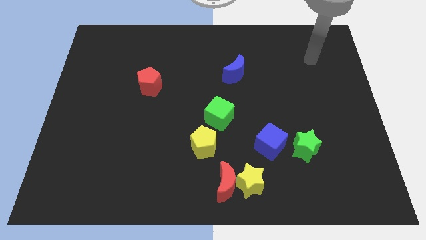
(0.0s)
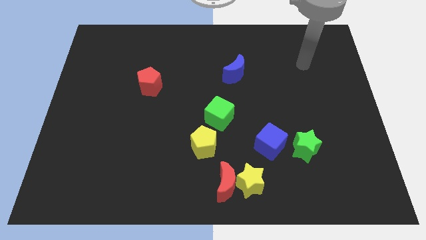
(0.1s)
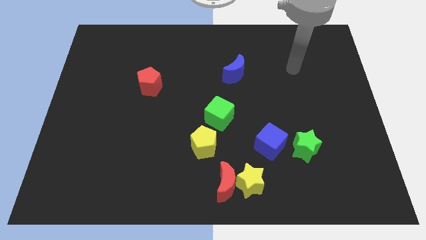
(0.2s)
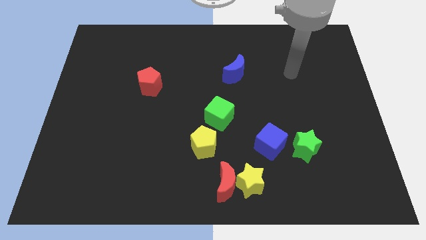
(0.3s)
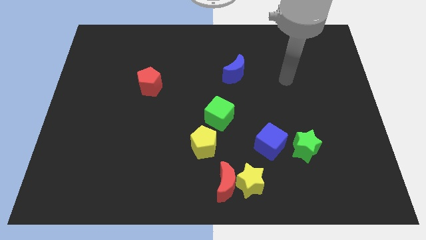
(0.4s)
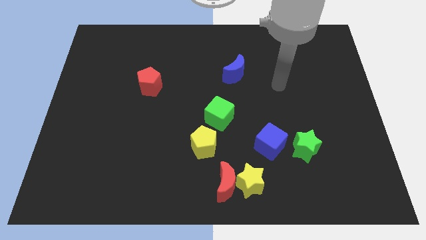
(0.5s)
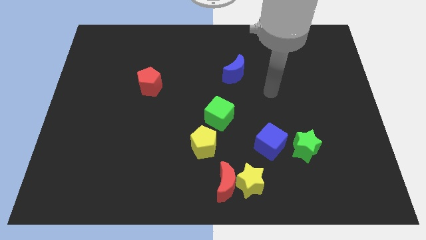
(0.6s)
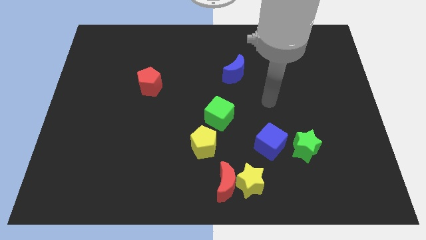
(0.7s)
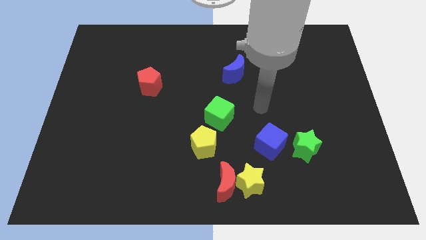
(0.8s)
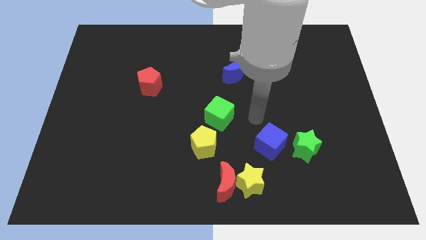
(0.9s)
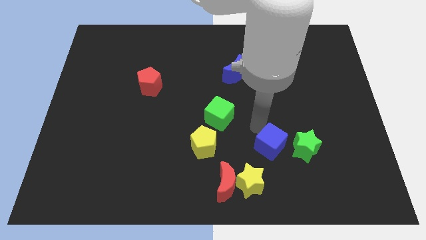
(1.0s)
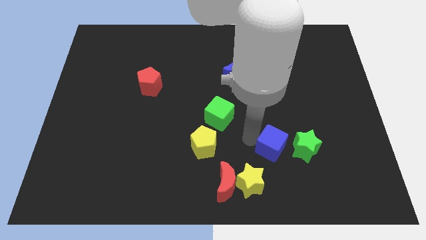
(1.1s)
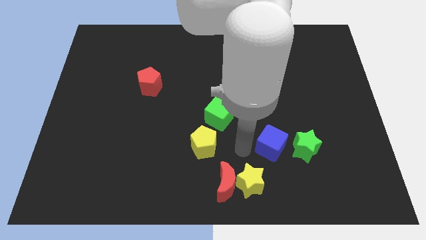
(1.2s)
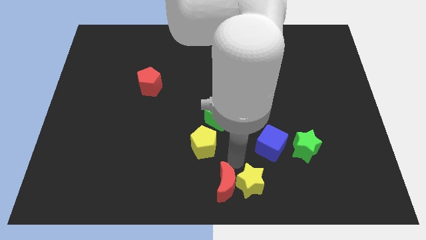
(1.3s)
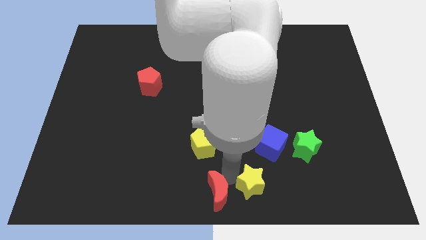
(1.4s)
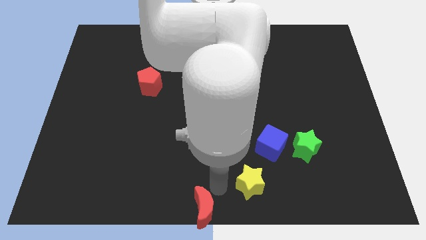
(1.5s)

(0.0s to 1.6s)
separate the yellow star from the red moon

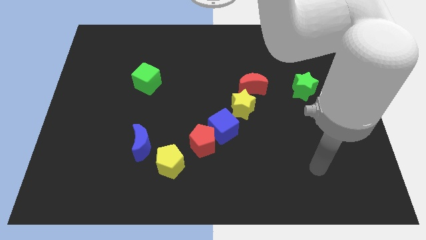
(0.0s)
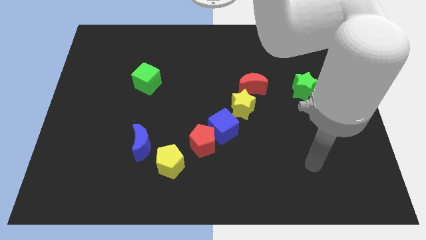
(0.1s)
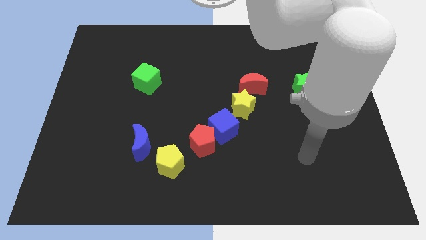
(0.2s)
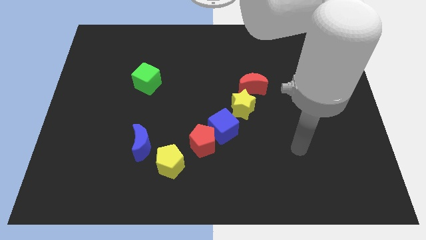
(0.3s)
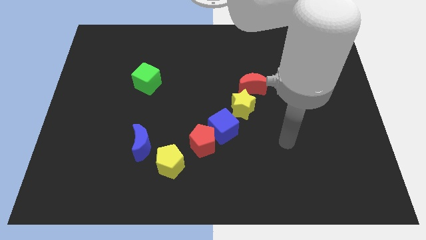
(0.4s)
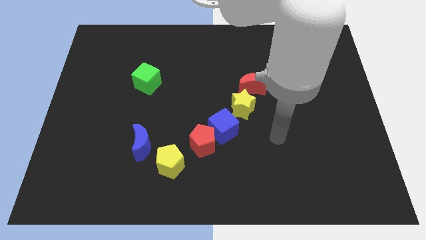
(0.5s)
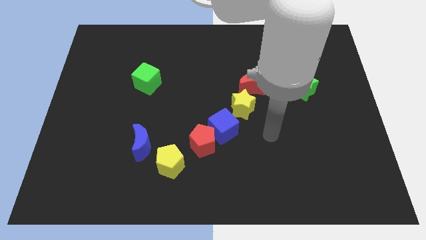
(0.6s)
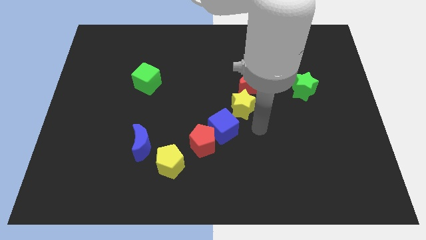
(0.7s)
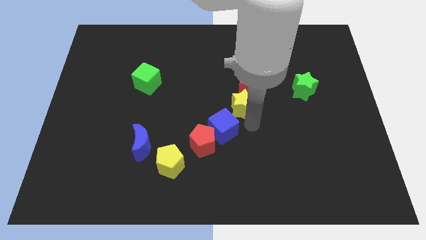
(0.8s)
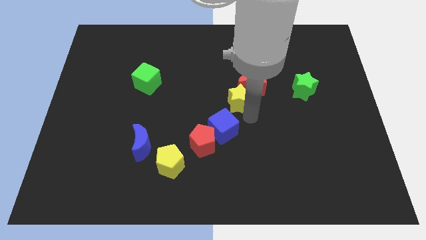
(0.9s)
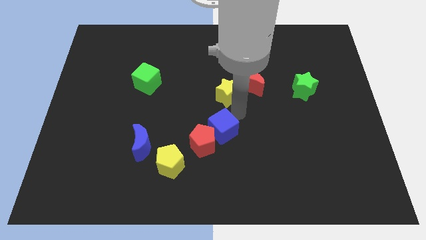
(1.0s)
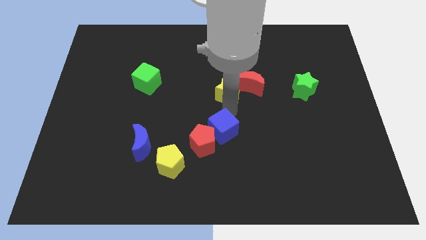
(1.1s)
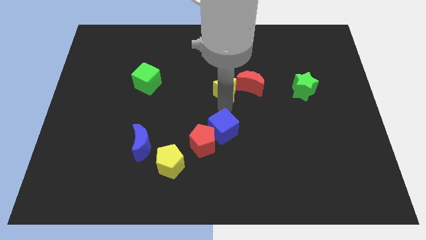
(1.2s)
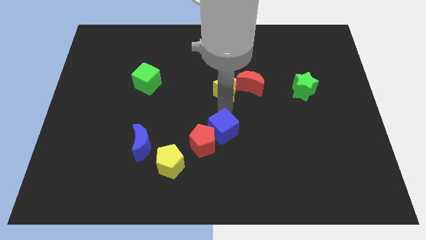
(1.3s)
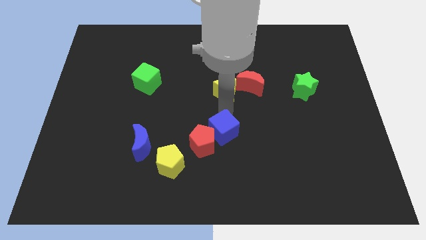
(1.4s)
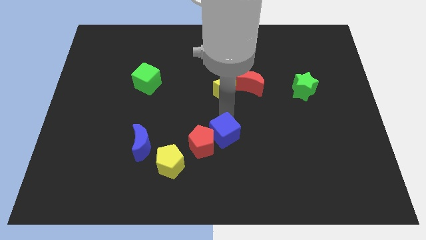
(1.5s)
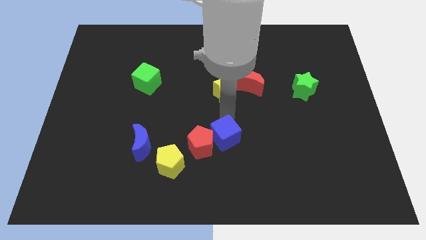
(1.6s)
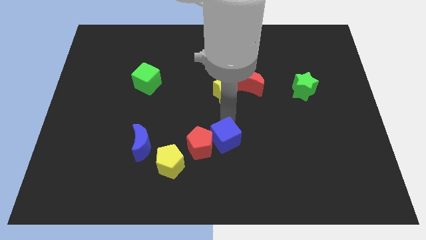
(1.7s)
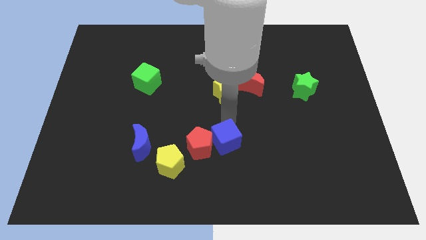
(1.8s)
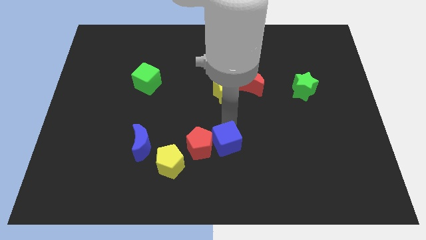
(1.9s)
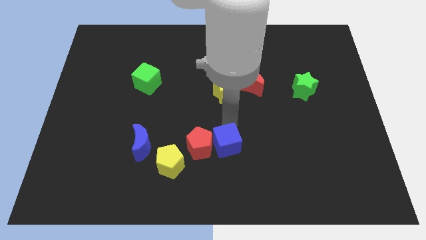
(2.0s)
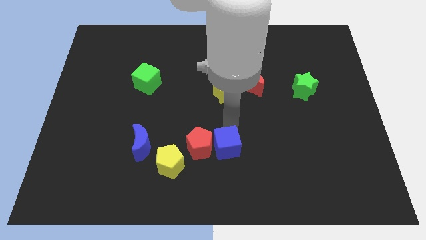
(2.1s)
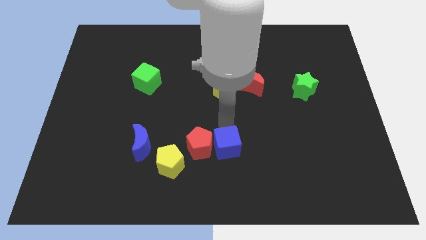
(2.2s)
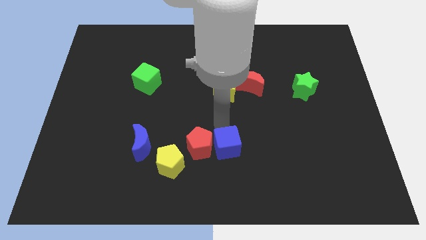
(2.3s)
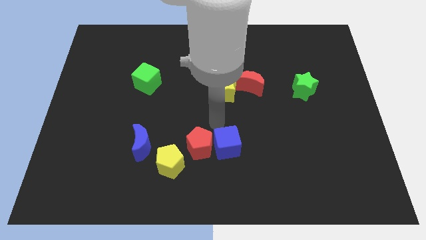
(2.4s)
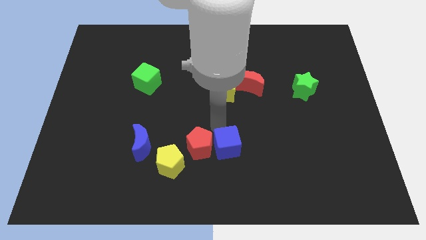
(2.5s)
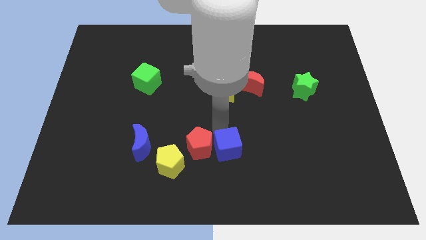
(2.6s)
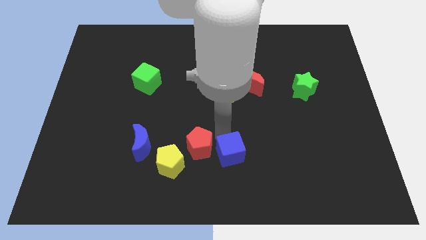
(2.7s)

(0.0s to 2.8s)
move the blue cube away from the red pentagon and yellow star

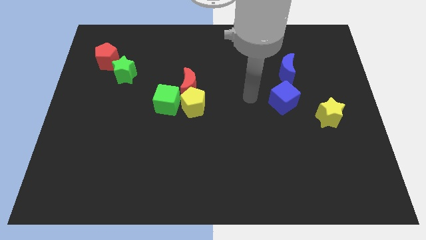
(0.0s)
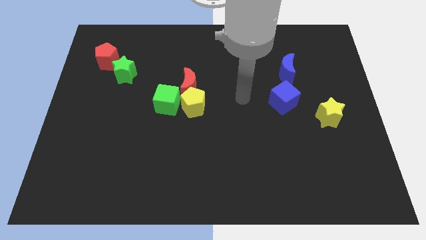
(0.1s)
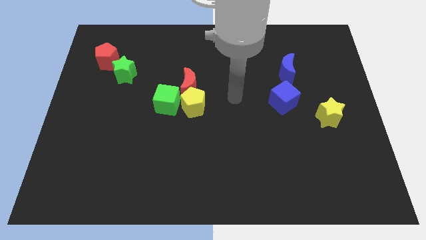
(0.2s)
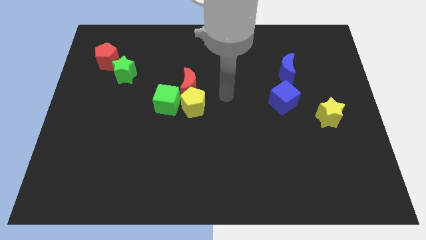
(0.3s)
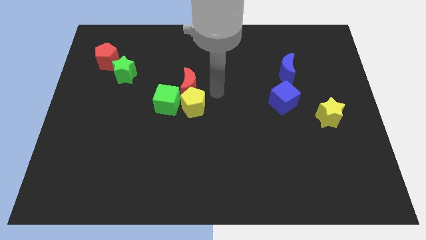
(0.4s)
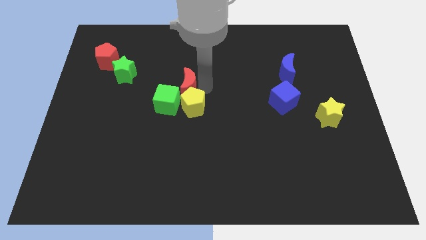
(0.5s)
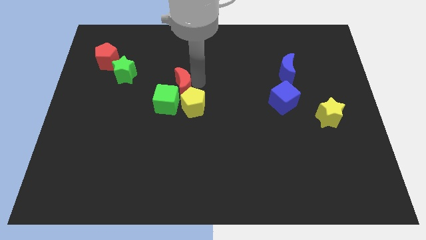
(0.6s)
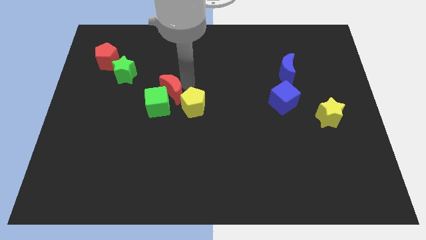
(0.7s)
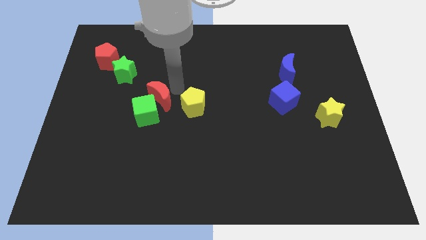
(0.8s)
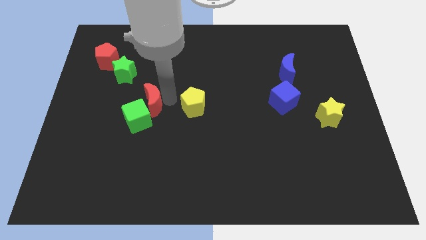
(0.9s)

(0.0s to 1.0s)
separate the yellow pentagon from the red moon and green cube

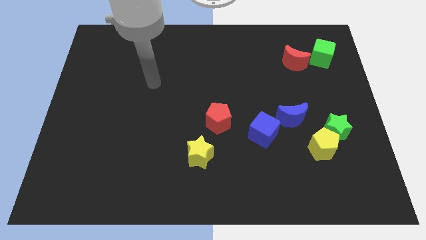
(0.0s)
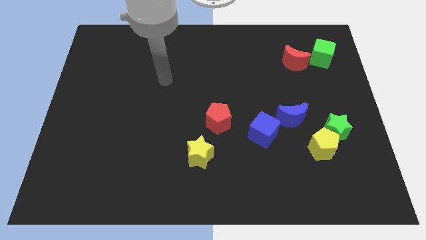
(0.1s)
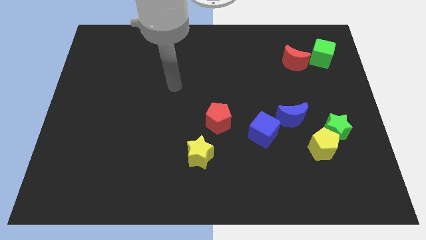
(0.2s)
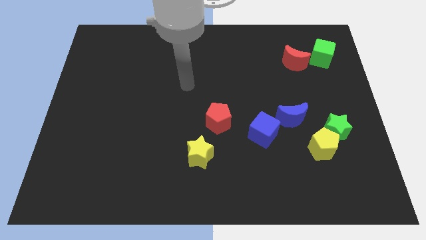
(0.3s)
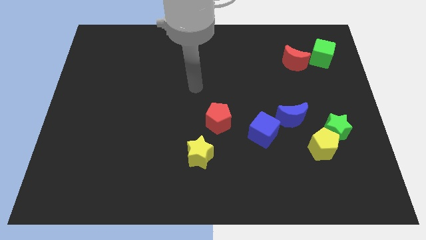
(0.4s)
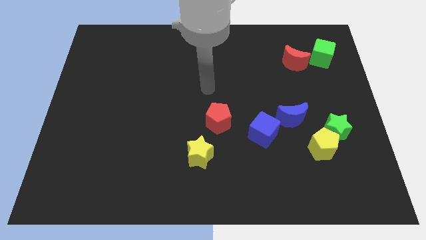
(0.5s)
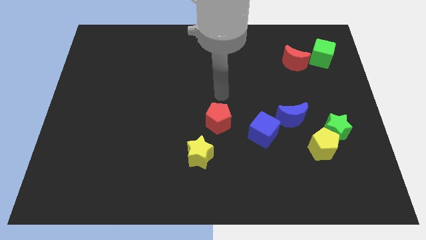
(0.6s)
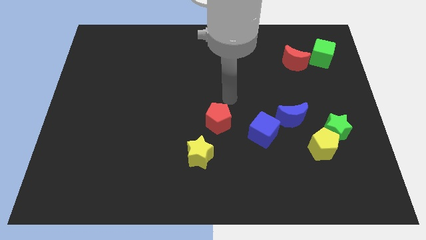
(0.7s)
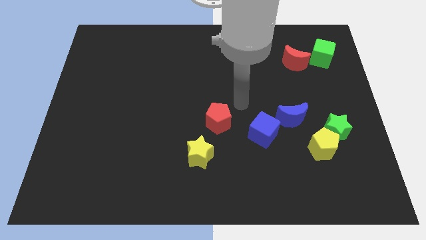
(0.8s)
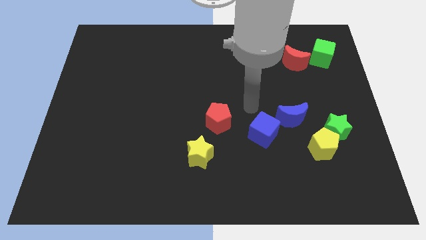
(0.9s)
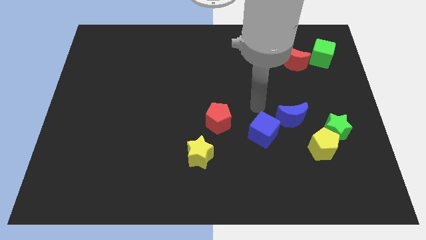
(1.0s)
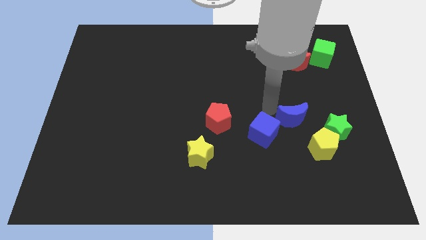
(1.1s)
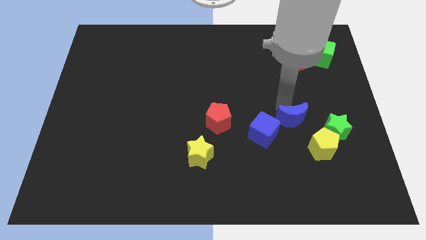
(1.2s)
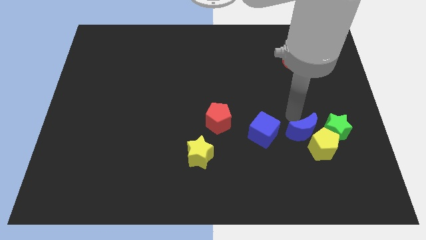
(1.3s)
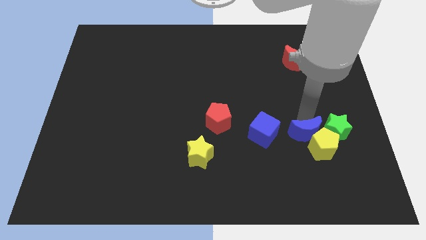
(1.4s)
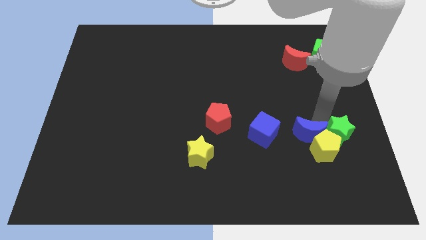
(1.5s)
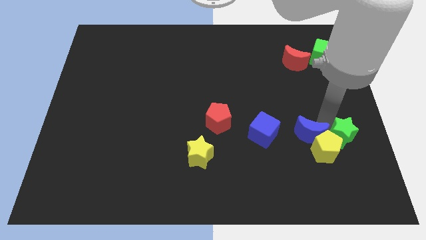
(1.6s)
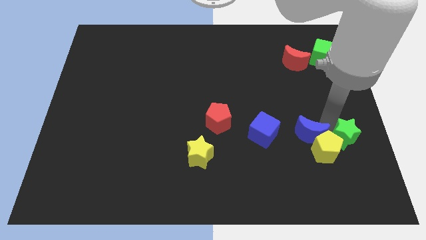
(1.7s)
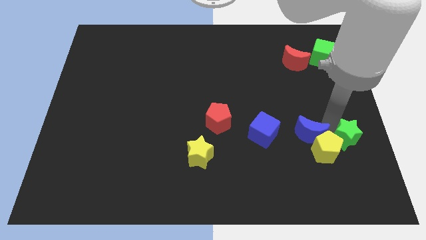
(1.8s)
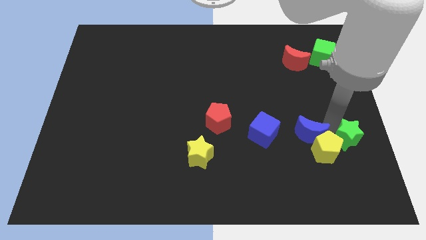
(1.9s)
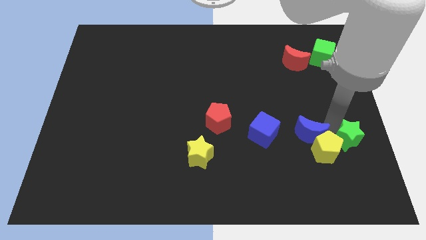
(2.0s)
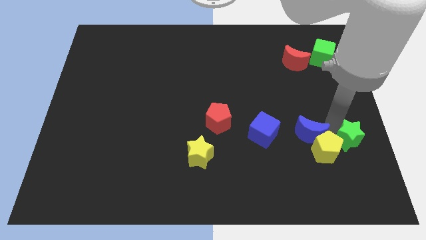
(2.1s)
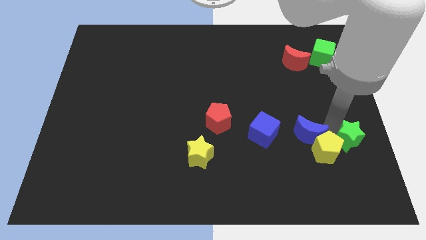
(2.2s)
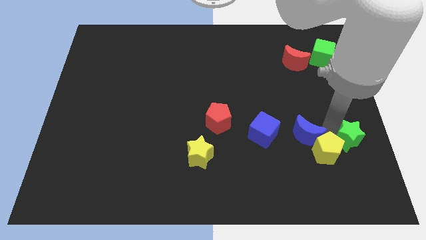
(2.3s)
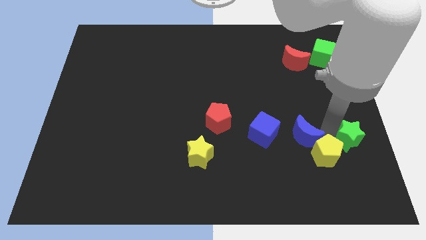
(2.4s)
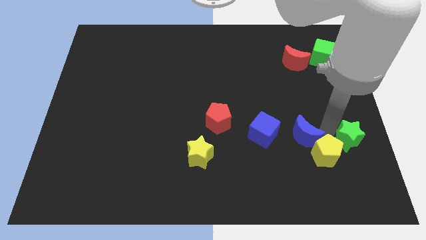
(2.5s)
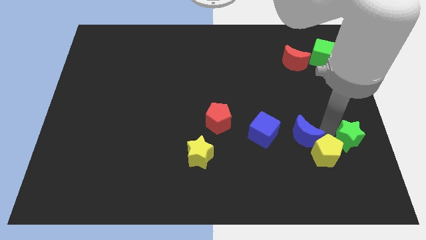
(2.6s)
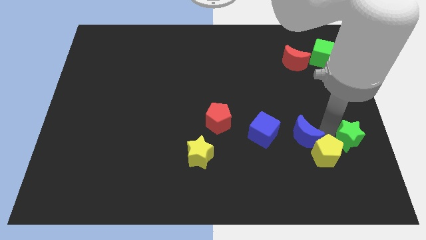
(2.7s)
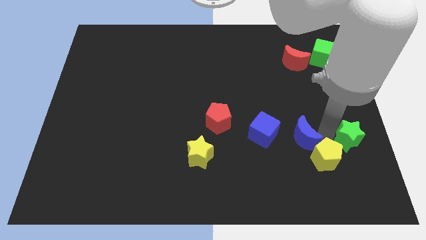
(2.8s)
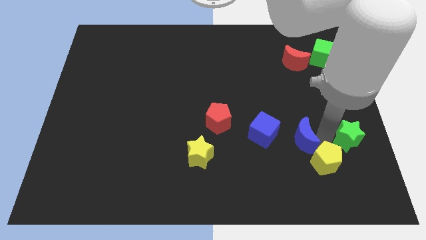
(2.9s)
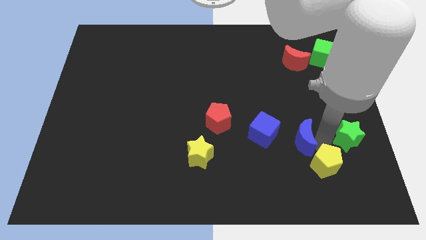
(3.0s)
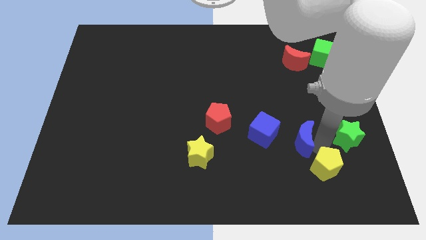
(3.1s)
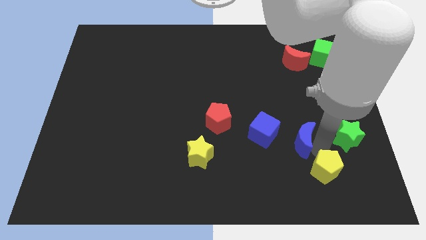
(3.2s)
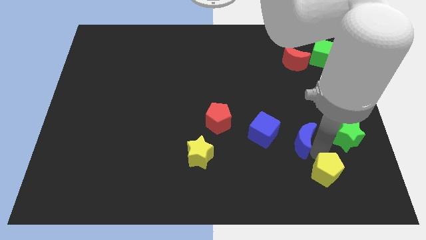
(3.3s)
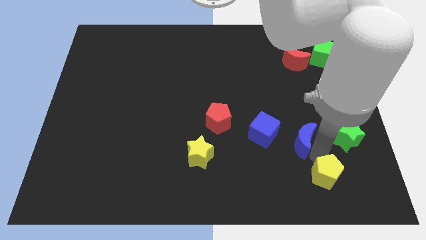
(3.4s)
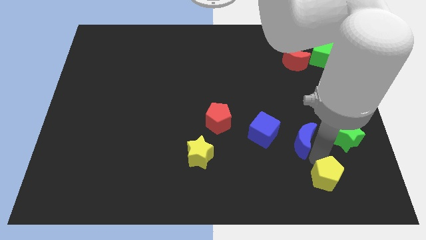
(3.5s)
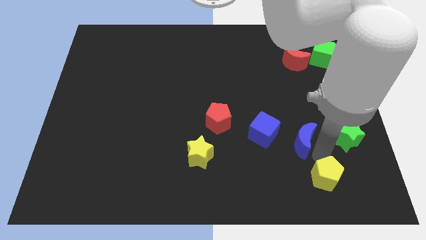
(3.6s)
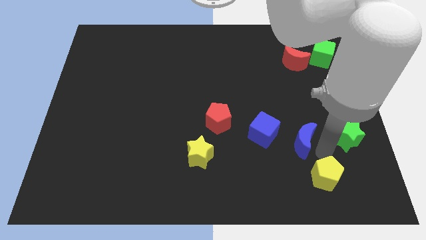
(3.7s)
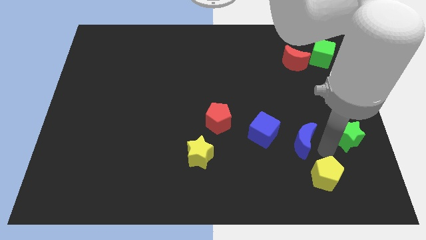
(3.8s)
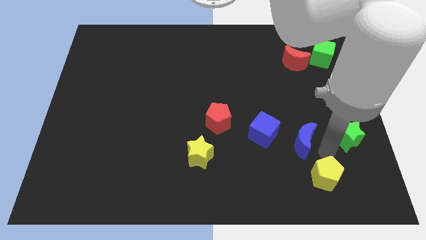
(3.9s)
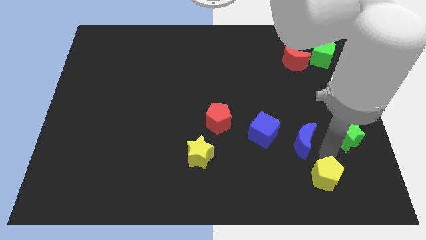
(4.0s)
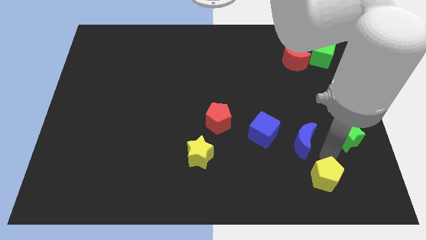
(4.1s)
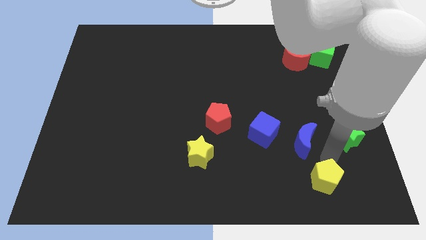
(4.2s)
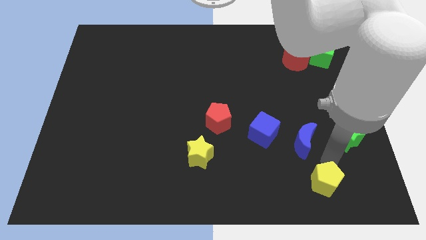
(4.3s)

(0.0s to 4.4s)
separate the yellow pentagon from the green star and blue moon
